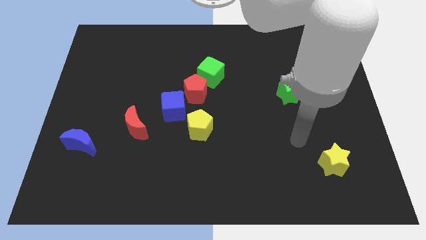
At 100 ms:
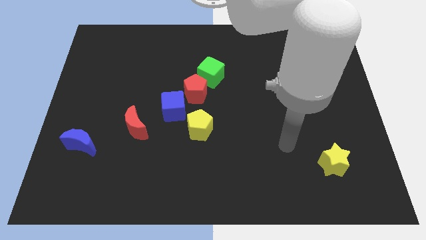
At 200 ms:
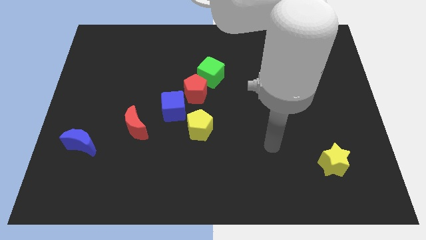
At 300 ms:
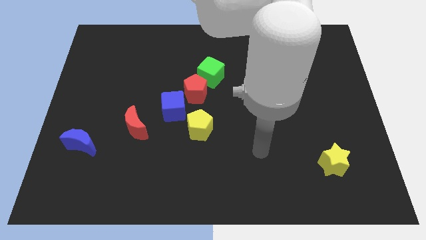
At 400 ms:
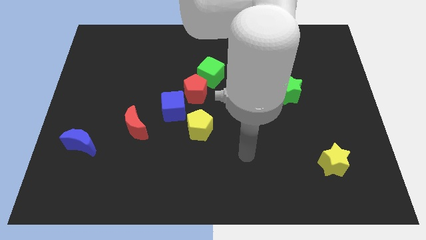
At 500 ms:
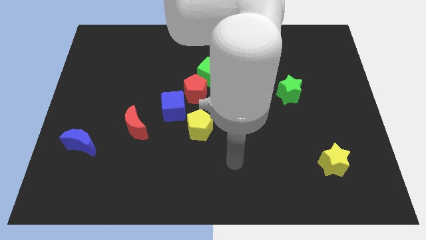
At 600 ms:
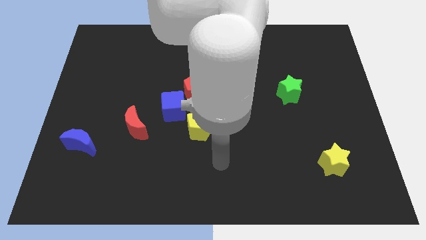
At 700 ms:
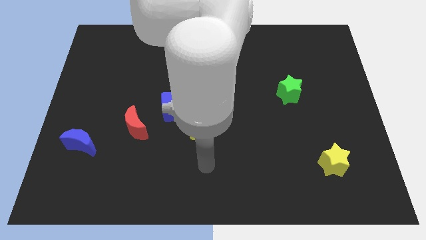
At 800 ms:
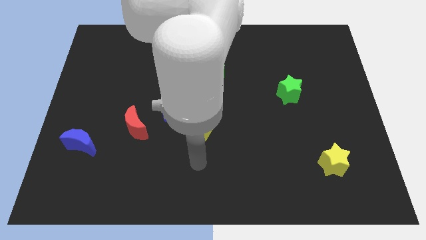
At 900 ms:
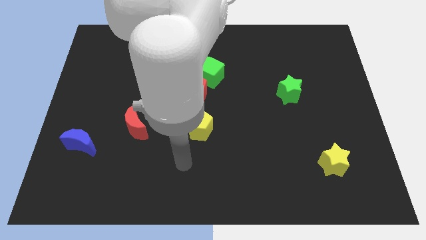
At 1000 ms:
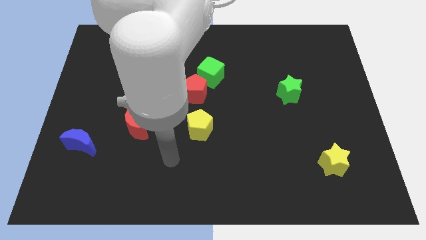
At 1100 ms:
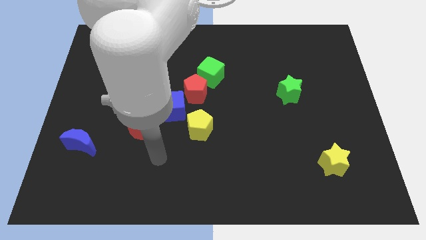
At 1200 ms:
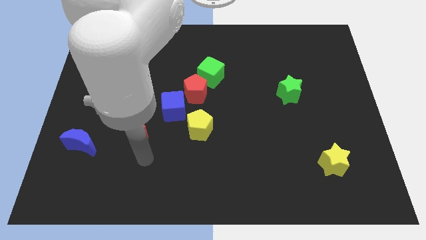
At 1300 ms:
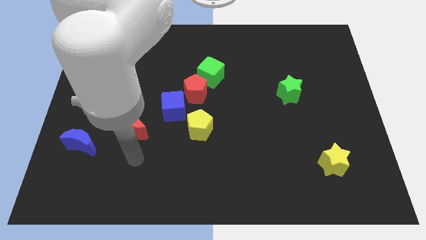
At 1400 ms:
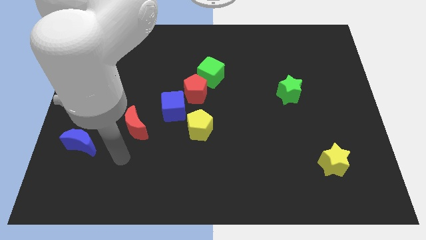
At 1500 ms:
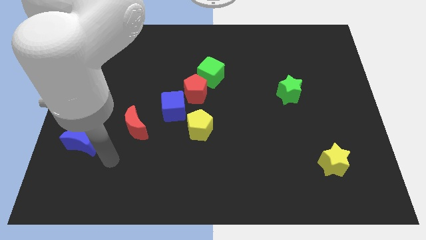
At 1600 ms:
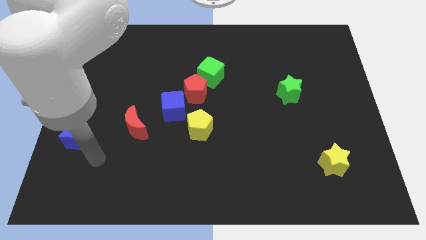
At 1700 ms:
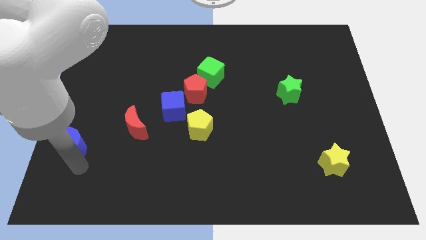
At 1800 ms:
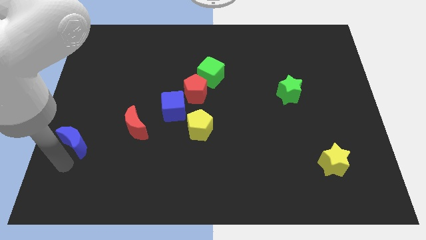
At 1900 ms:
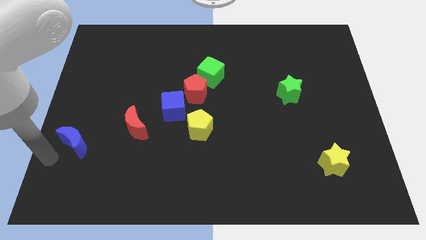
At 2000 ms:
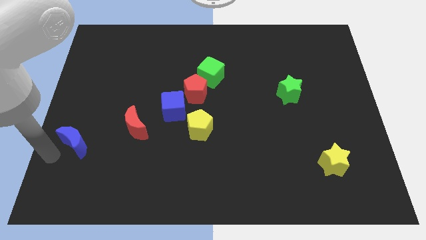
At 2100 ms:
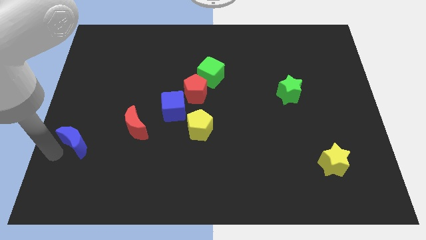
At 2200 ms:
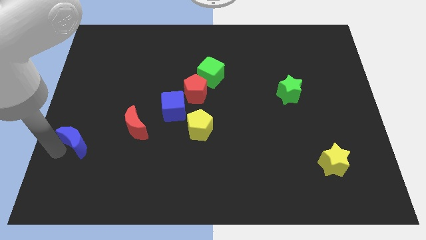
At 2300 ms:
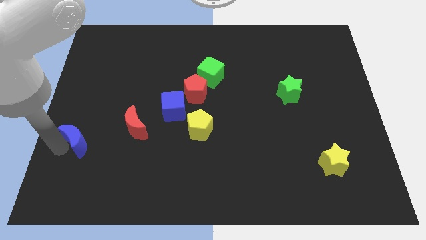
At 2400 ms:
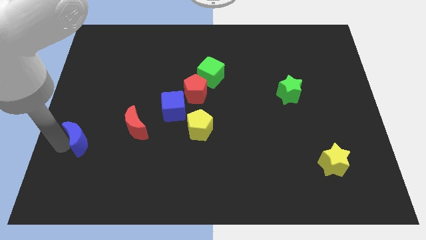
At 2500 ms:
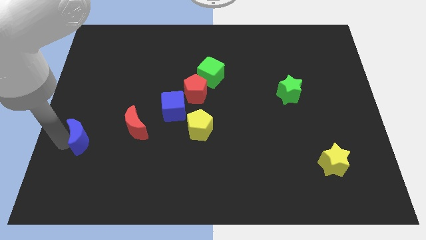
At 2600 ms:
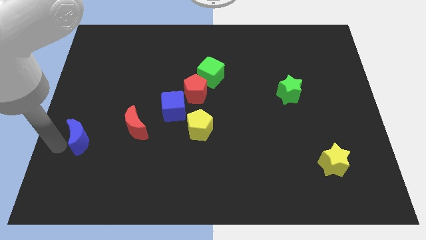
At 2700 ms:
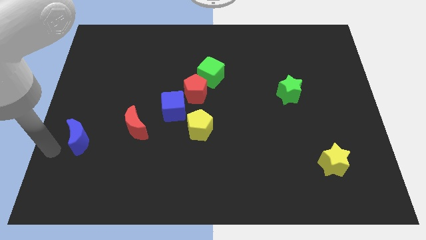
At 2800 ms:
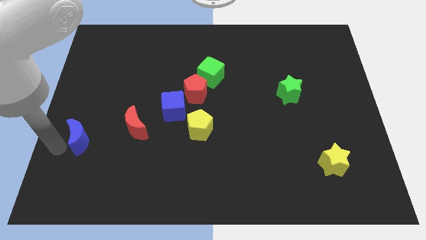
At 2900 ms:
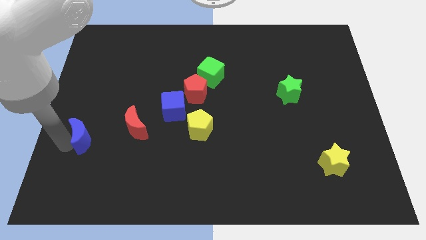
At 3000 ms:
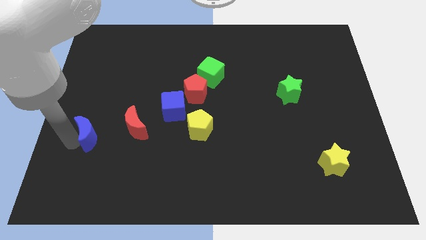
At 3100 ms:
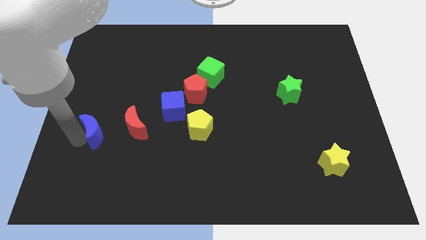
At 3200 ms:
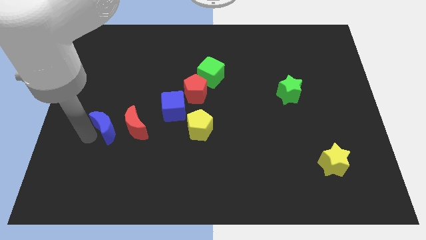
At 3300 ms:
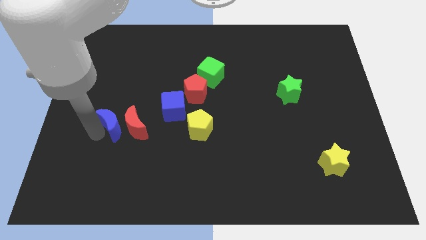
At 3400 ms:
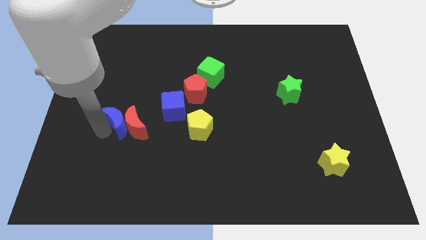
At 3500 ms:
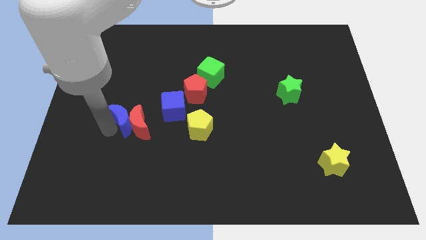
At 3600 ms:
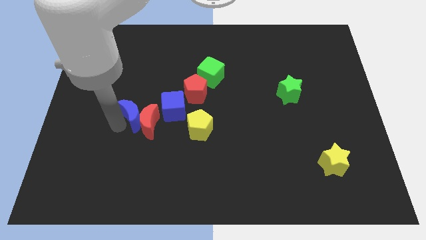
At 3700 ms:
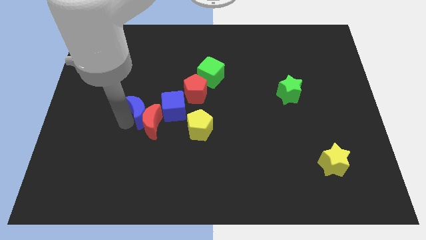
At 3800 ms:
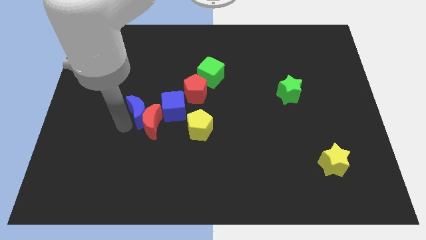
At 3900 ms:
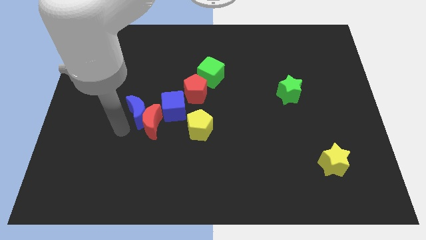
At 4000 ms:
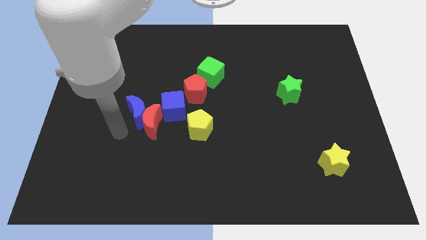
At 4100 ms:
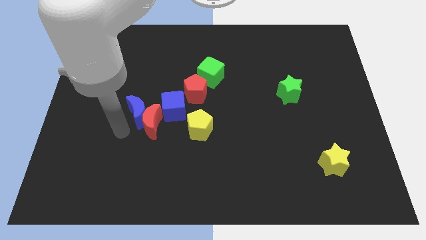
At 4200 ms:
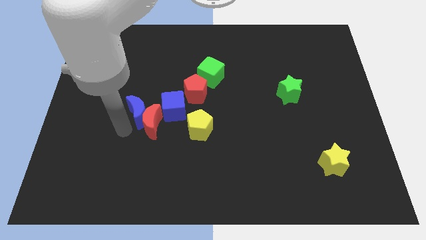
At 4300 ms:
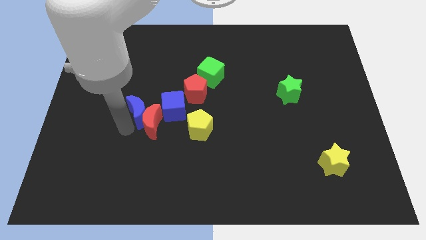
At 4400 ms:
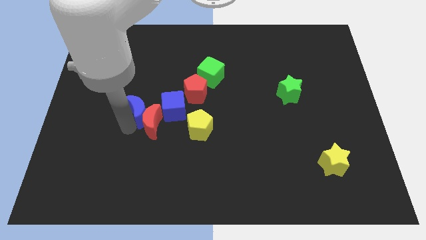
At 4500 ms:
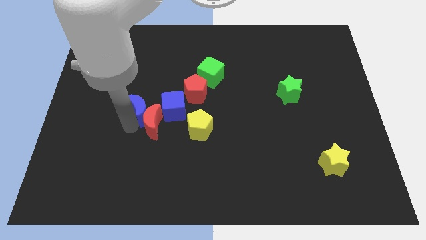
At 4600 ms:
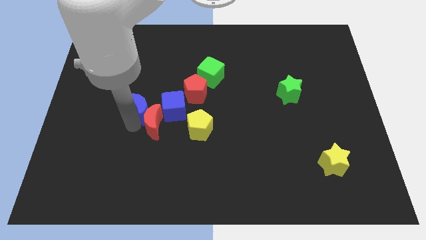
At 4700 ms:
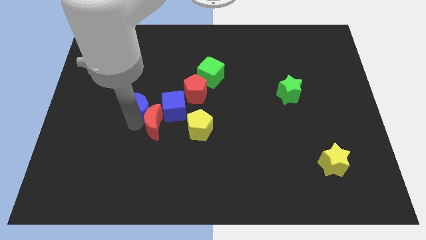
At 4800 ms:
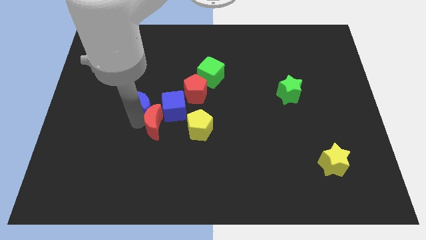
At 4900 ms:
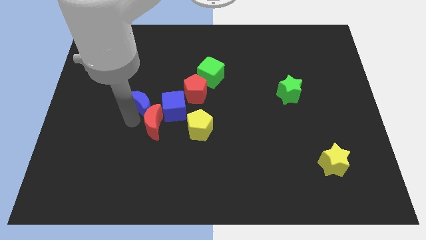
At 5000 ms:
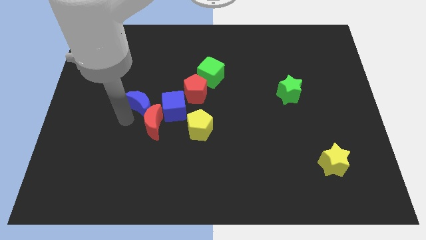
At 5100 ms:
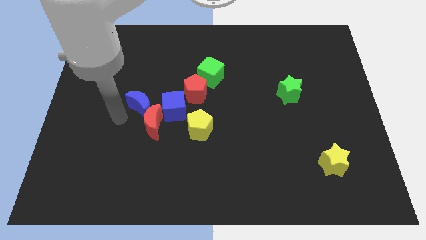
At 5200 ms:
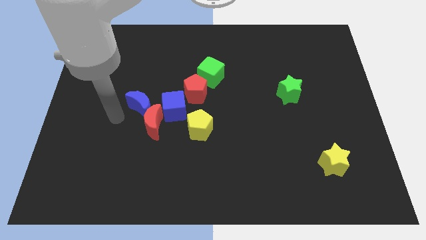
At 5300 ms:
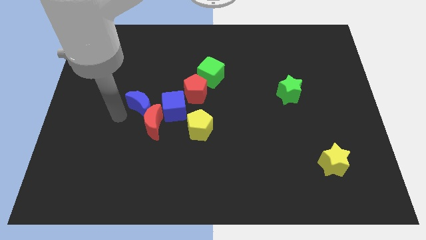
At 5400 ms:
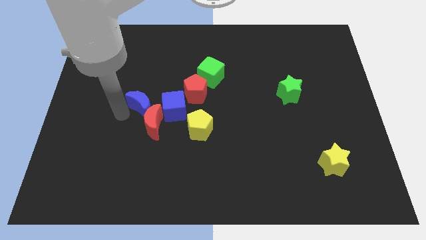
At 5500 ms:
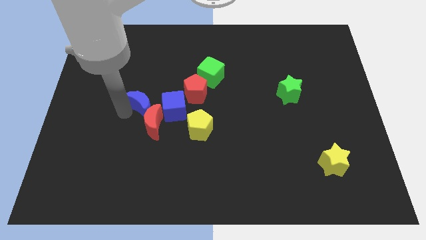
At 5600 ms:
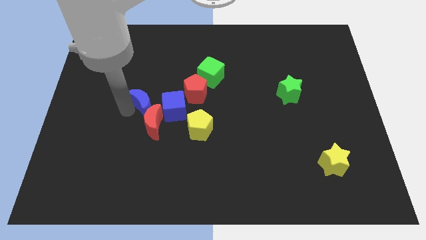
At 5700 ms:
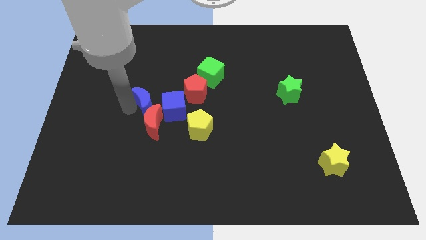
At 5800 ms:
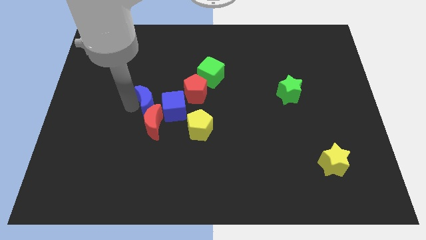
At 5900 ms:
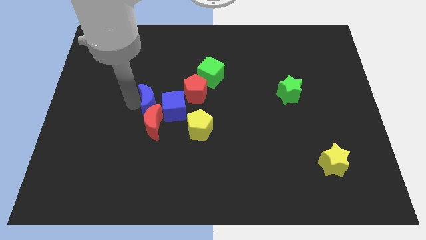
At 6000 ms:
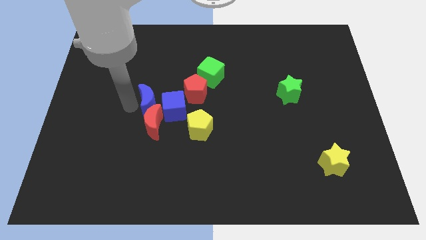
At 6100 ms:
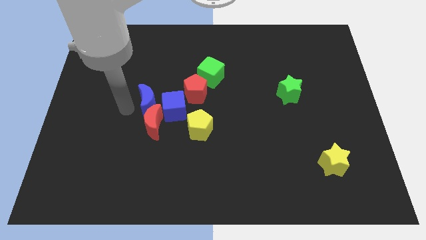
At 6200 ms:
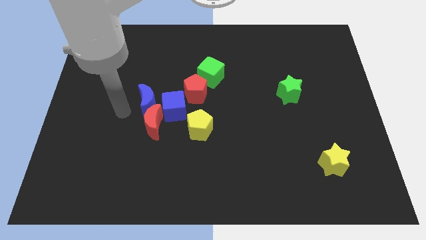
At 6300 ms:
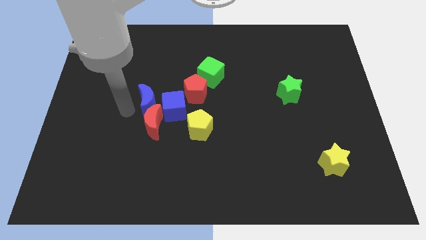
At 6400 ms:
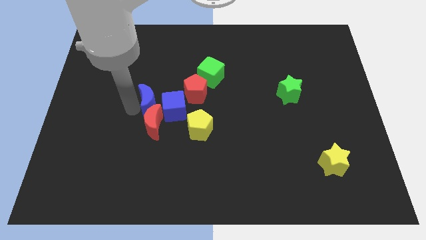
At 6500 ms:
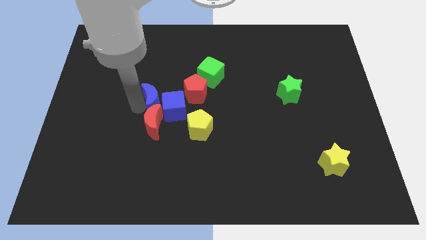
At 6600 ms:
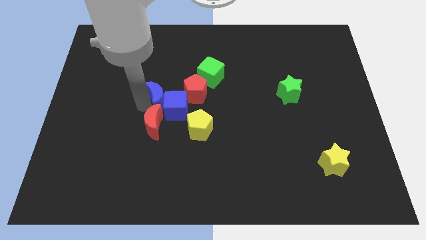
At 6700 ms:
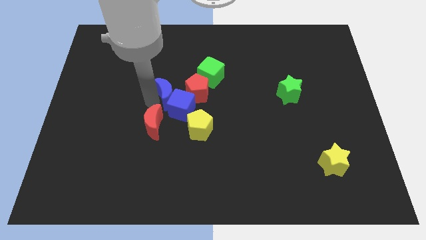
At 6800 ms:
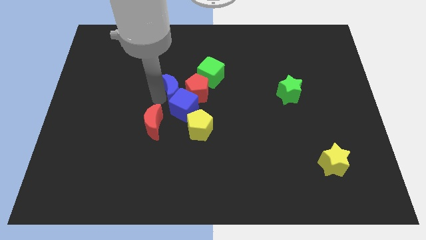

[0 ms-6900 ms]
slide the blue moon to the red pentagon
